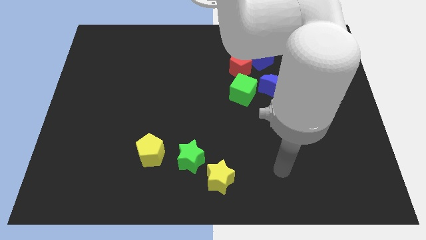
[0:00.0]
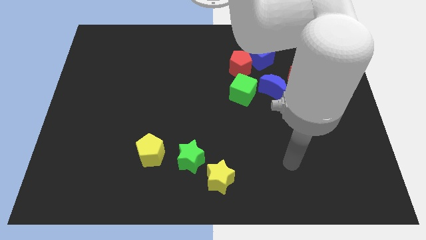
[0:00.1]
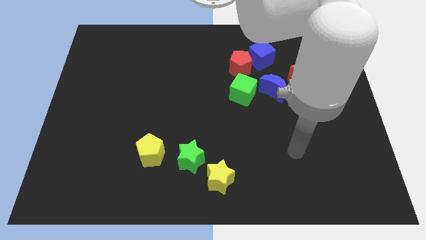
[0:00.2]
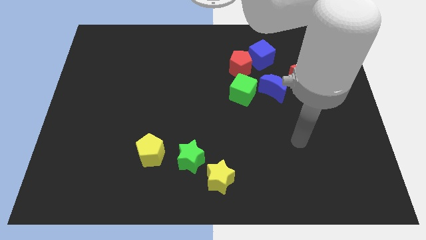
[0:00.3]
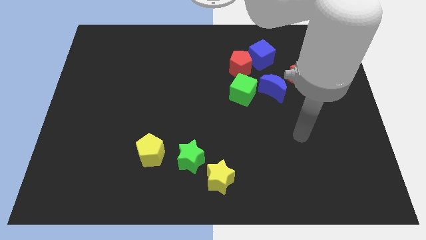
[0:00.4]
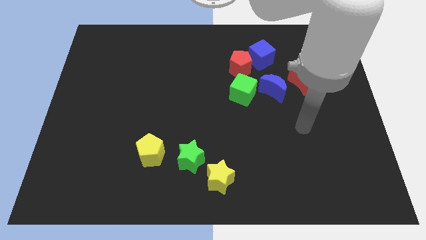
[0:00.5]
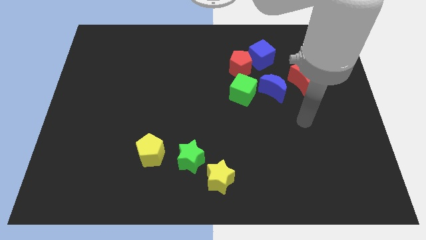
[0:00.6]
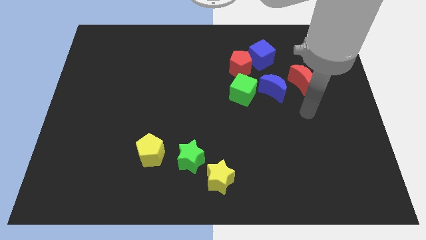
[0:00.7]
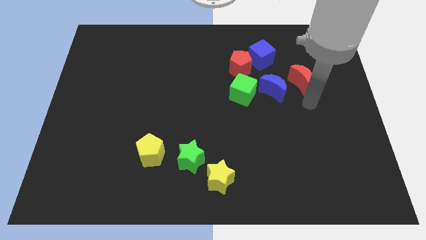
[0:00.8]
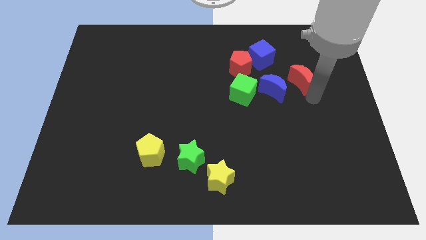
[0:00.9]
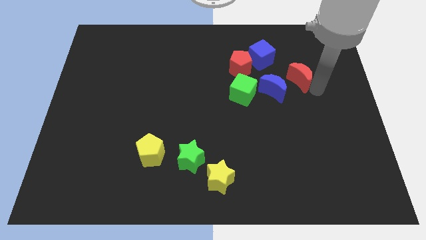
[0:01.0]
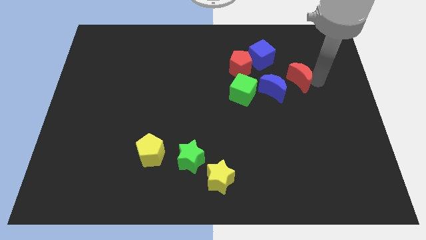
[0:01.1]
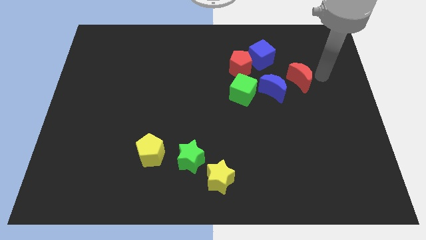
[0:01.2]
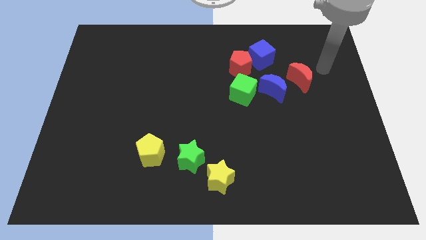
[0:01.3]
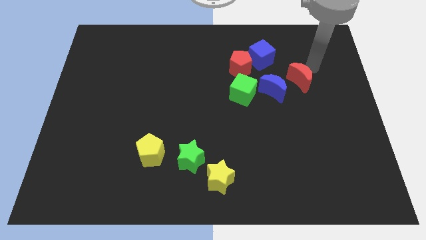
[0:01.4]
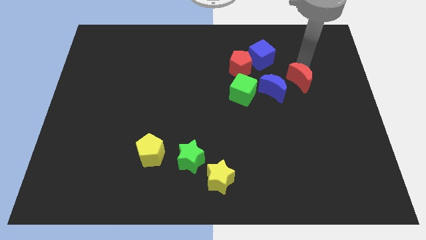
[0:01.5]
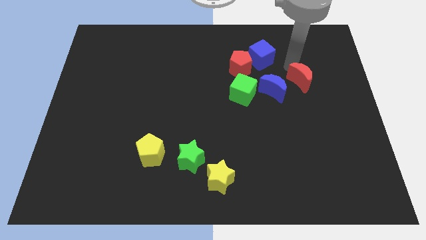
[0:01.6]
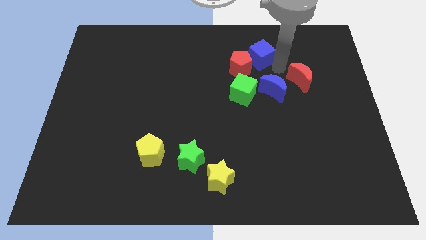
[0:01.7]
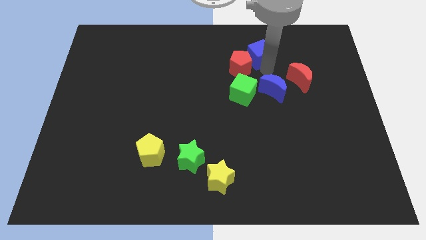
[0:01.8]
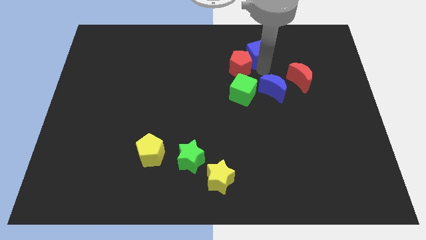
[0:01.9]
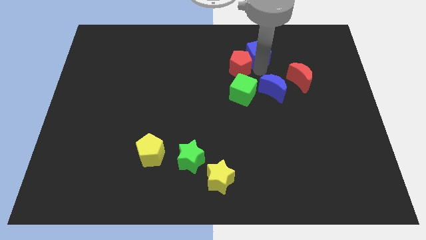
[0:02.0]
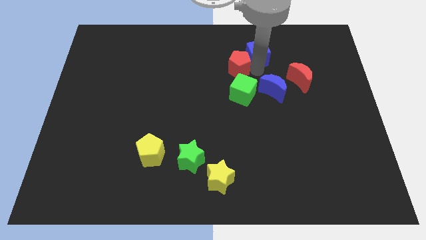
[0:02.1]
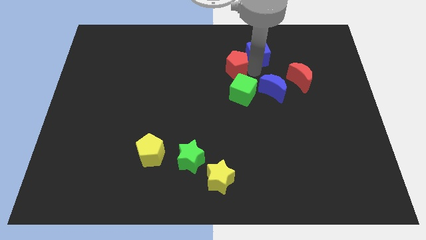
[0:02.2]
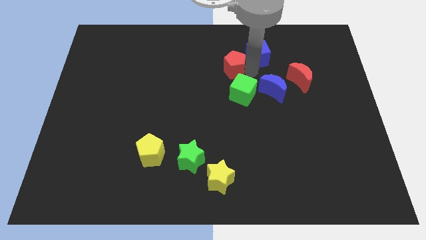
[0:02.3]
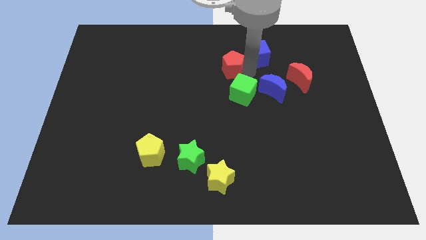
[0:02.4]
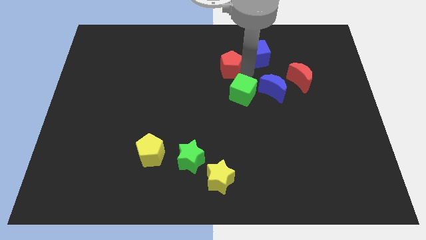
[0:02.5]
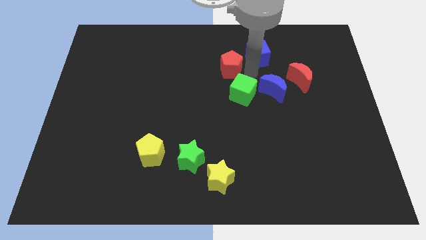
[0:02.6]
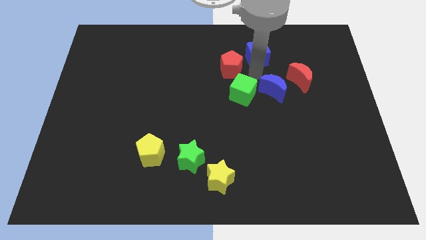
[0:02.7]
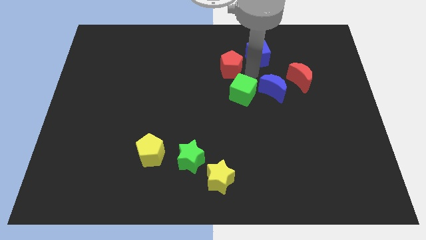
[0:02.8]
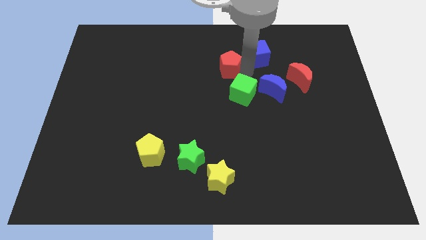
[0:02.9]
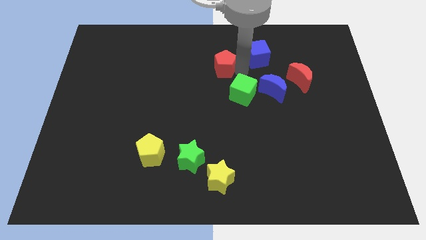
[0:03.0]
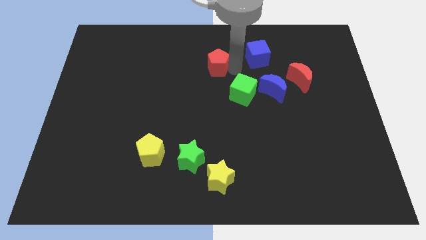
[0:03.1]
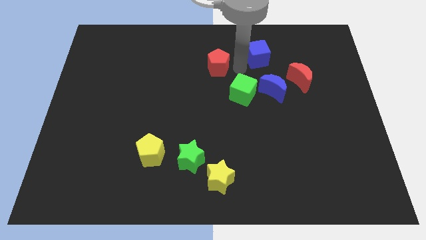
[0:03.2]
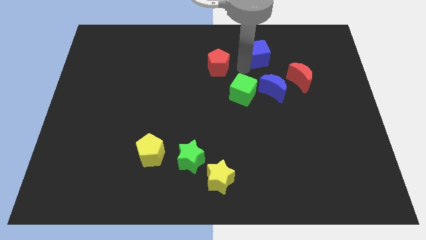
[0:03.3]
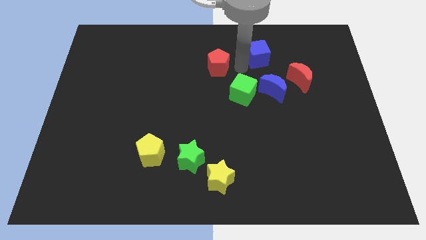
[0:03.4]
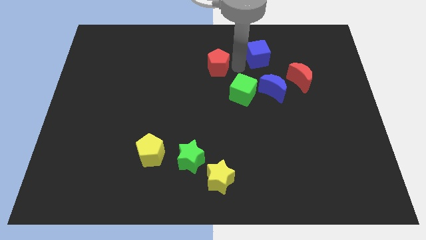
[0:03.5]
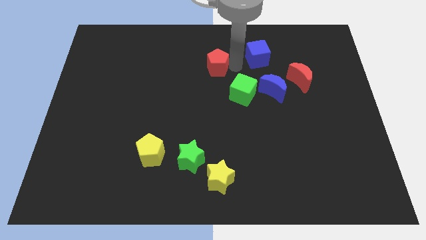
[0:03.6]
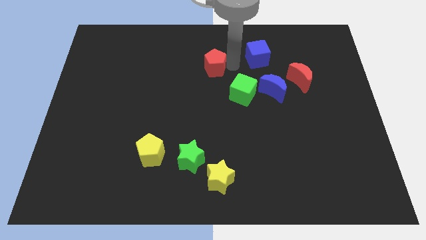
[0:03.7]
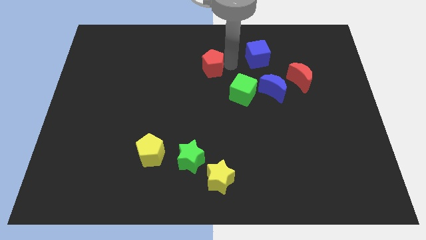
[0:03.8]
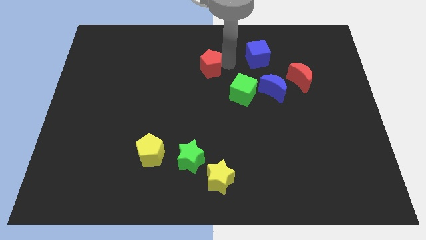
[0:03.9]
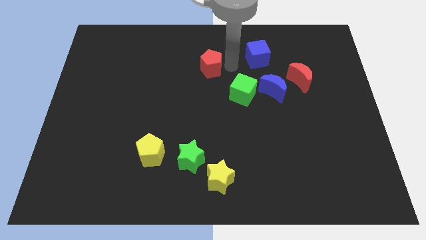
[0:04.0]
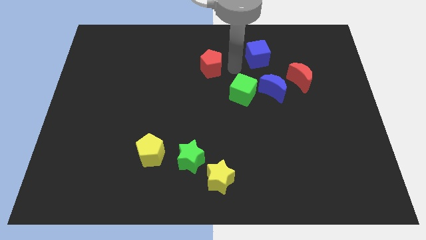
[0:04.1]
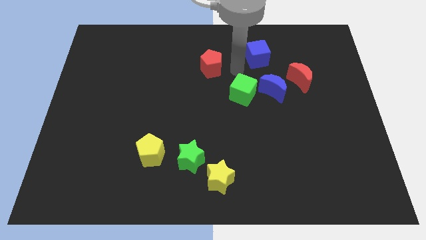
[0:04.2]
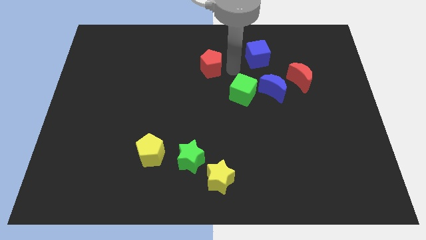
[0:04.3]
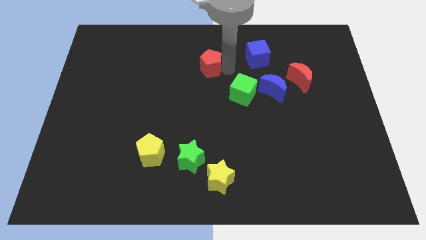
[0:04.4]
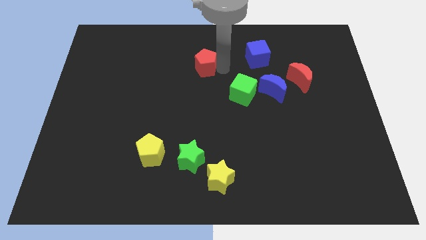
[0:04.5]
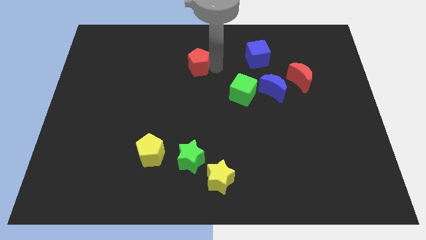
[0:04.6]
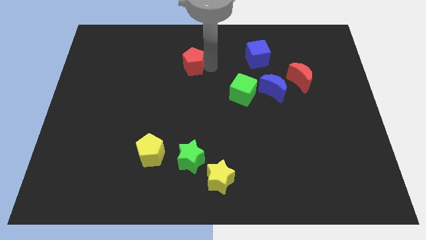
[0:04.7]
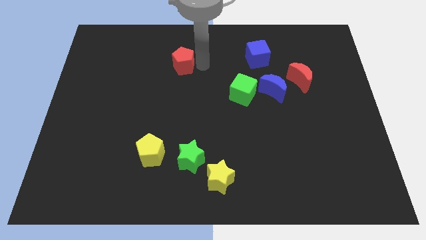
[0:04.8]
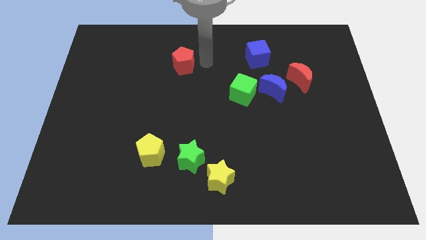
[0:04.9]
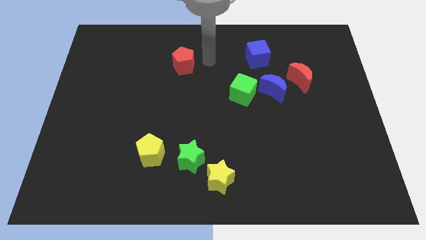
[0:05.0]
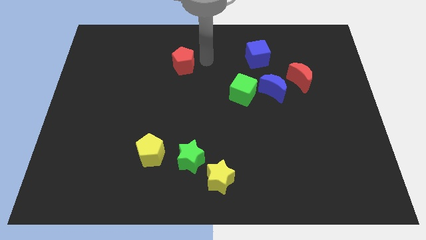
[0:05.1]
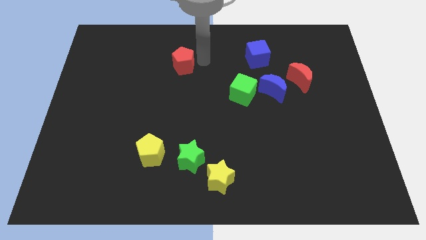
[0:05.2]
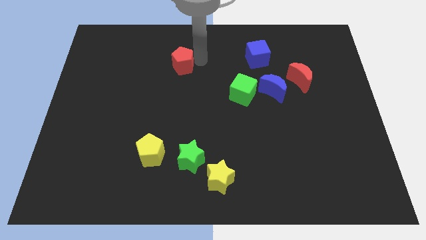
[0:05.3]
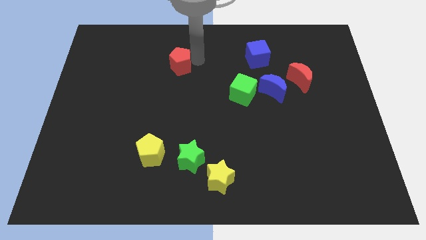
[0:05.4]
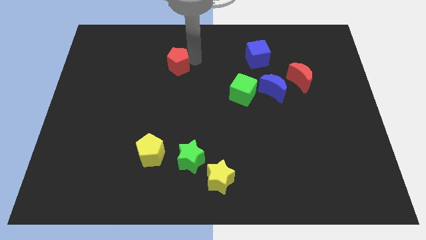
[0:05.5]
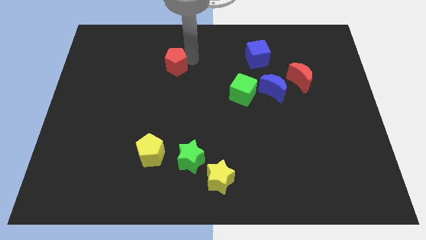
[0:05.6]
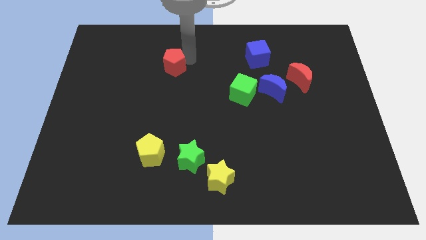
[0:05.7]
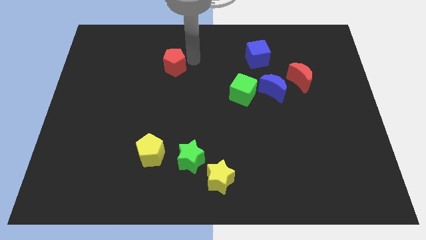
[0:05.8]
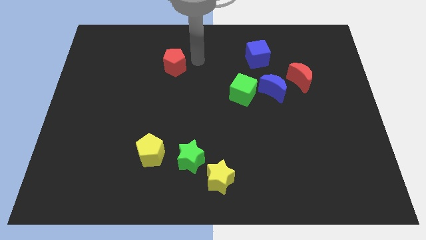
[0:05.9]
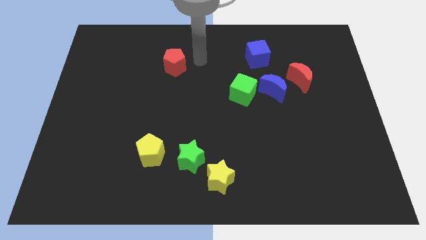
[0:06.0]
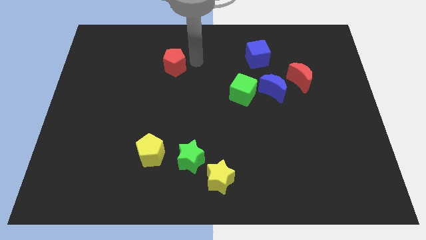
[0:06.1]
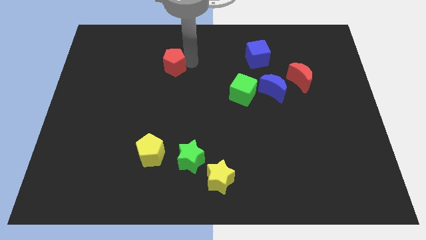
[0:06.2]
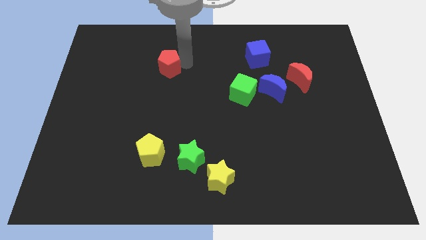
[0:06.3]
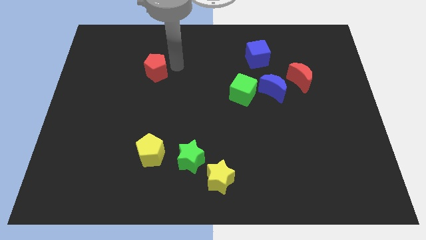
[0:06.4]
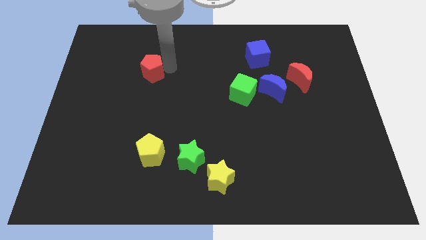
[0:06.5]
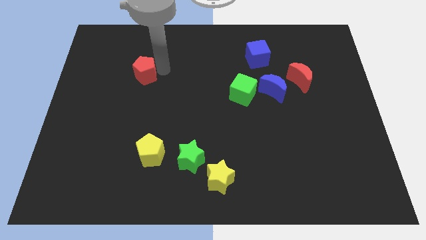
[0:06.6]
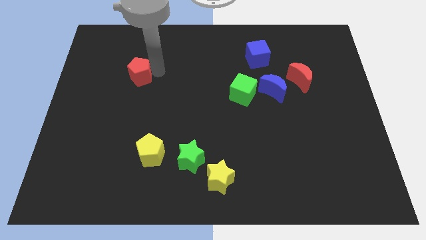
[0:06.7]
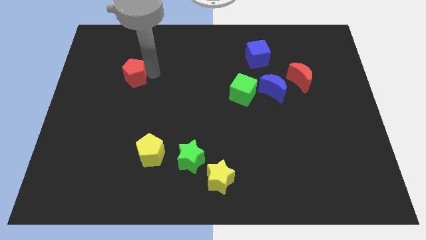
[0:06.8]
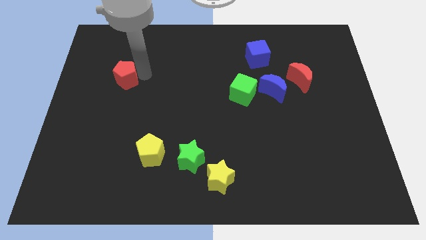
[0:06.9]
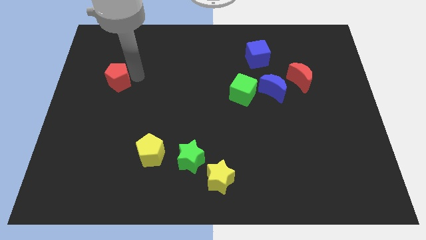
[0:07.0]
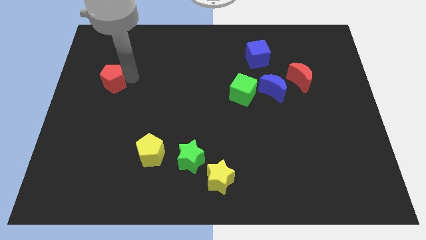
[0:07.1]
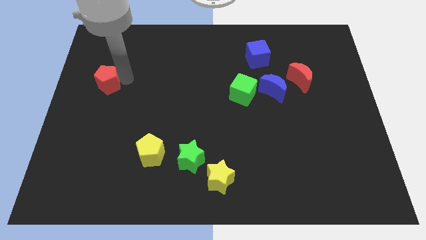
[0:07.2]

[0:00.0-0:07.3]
put the red pentagon to the left side
